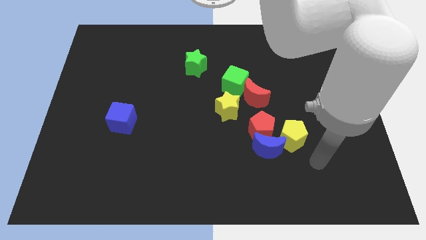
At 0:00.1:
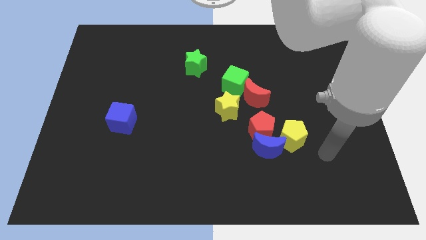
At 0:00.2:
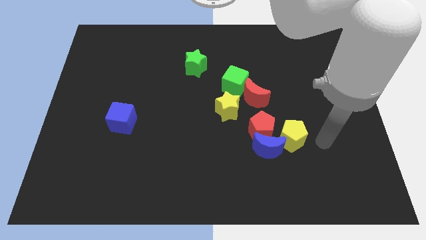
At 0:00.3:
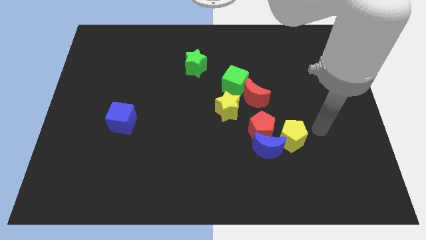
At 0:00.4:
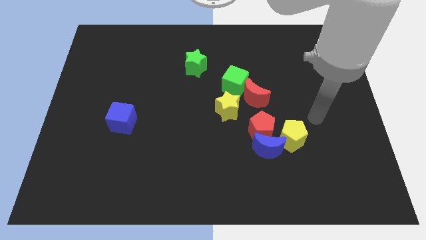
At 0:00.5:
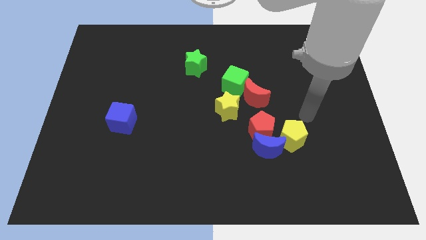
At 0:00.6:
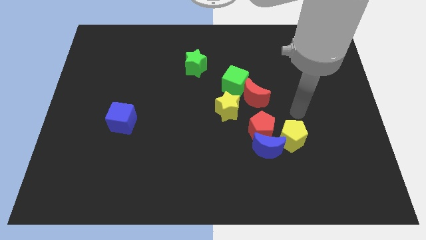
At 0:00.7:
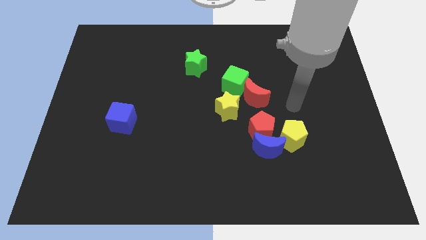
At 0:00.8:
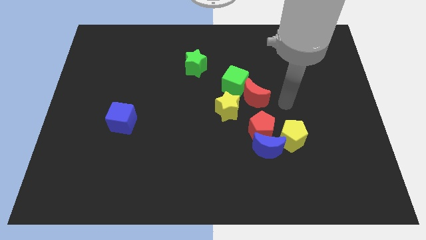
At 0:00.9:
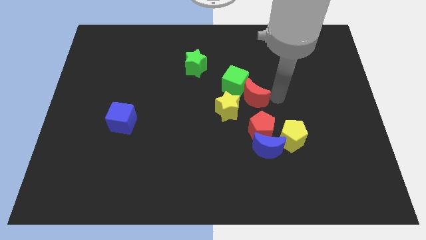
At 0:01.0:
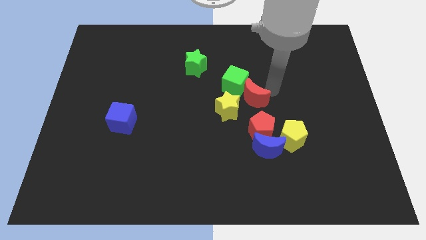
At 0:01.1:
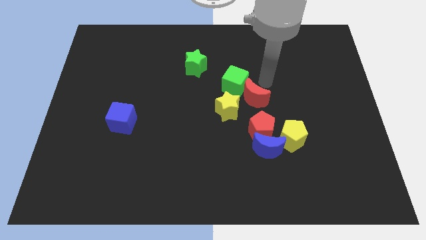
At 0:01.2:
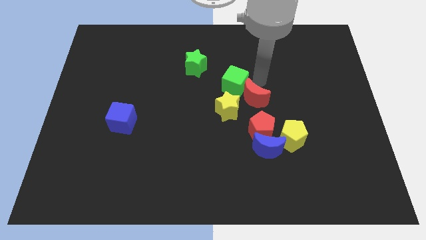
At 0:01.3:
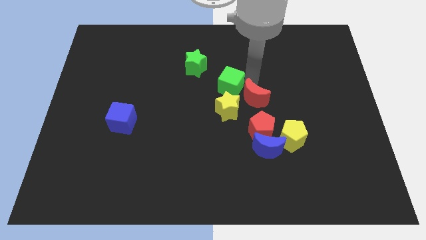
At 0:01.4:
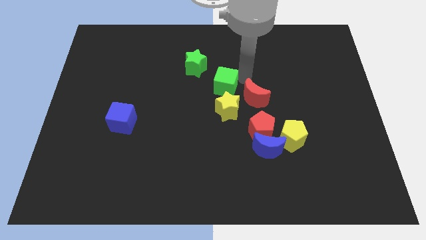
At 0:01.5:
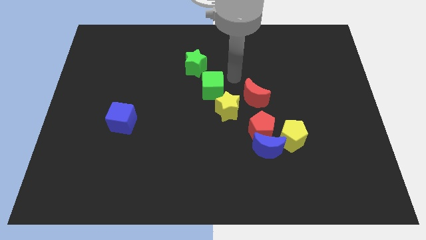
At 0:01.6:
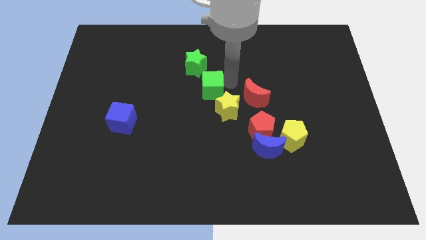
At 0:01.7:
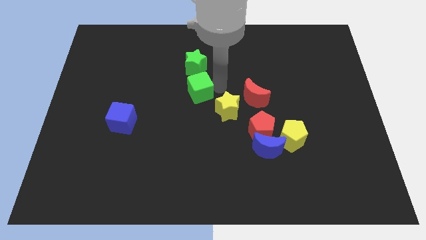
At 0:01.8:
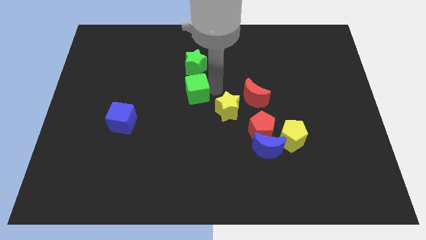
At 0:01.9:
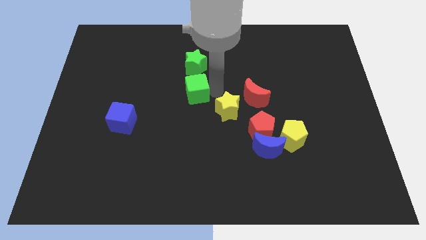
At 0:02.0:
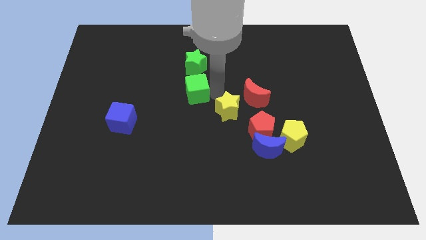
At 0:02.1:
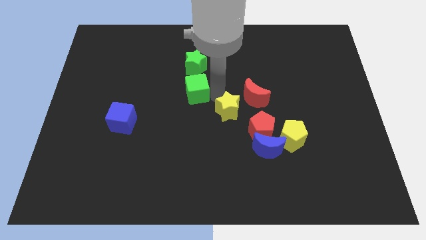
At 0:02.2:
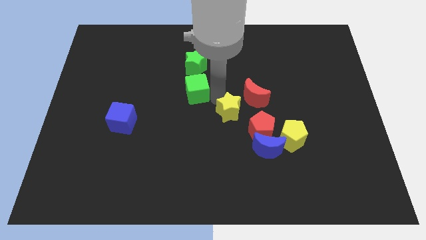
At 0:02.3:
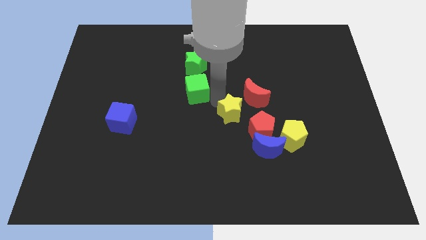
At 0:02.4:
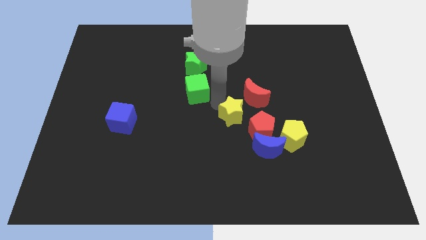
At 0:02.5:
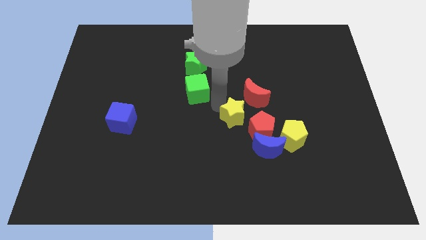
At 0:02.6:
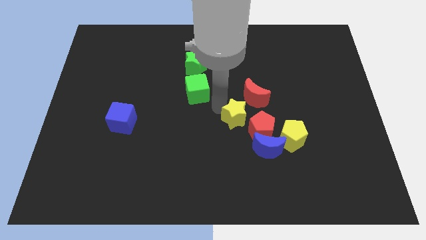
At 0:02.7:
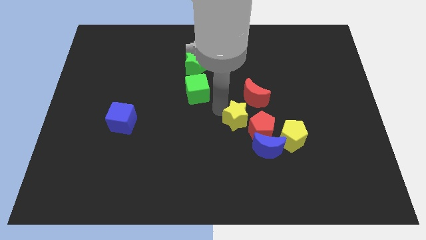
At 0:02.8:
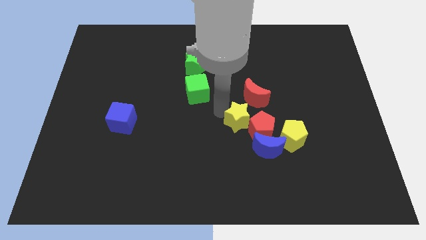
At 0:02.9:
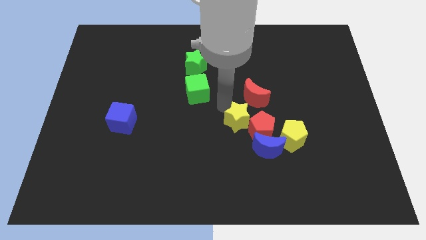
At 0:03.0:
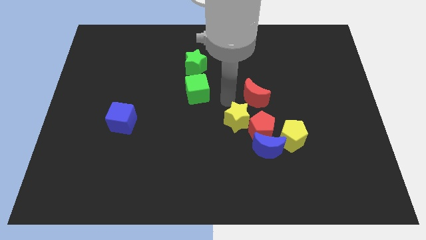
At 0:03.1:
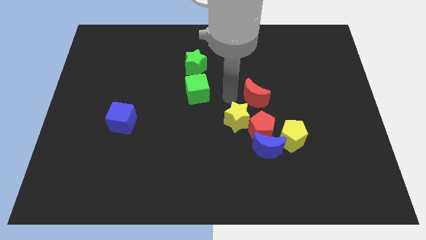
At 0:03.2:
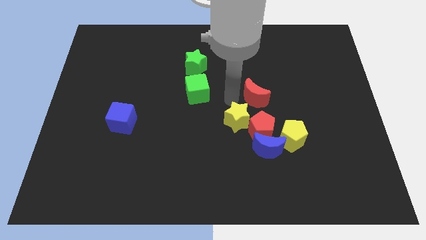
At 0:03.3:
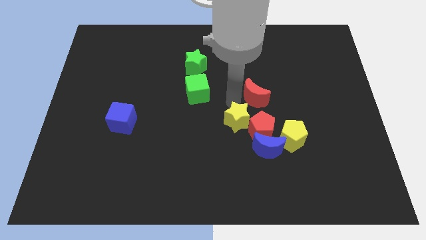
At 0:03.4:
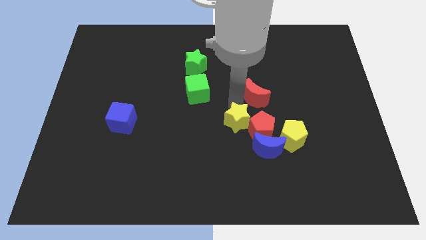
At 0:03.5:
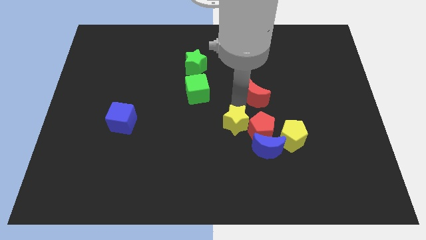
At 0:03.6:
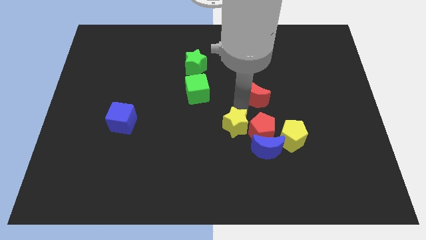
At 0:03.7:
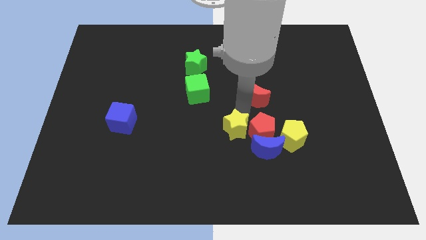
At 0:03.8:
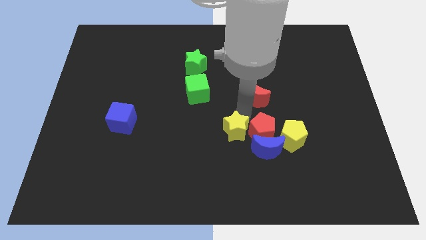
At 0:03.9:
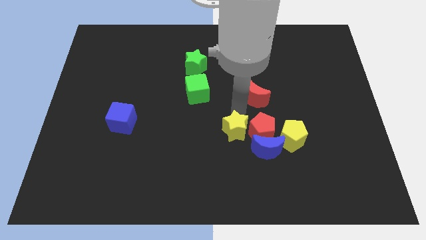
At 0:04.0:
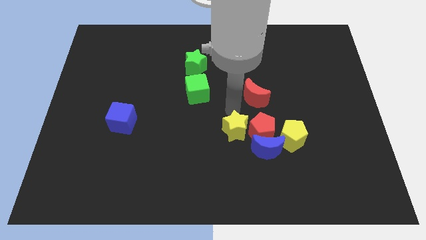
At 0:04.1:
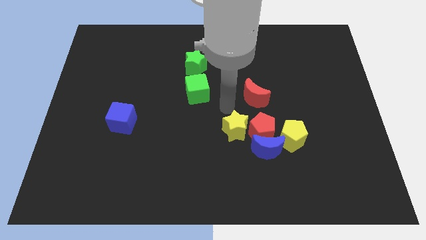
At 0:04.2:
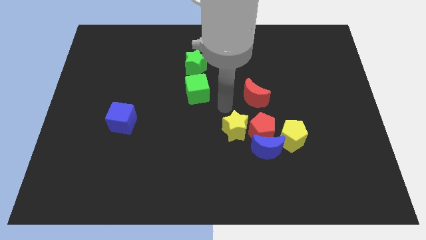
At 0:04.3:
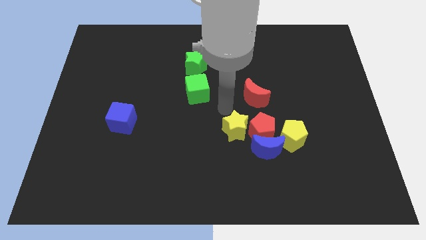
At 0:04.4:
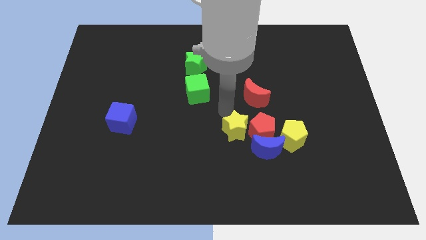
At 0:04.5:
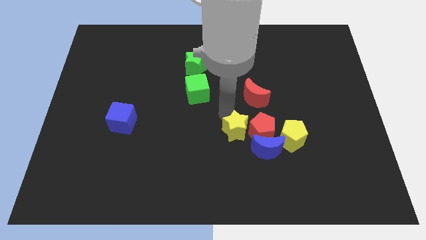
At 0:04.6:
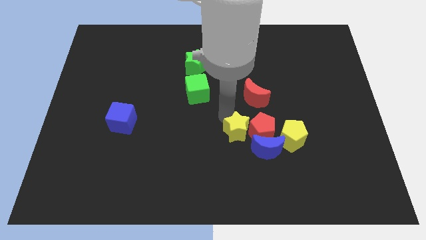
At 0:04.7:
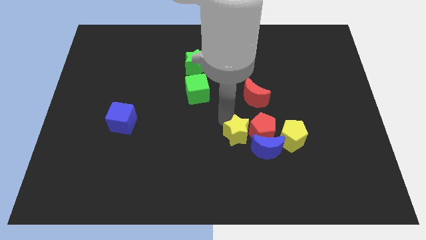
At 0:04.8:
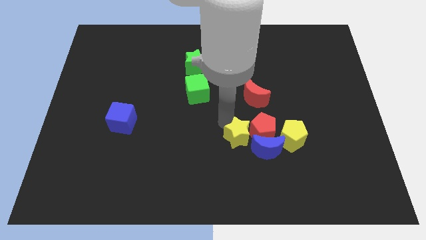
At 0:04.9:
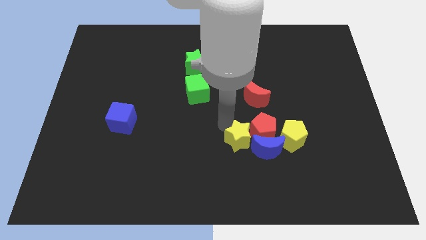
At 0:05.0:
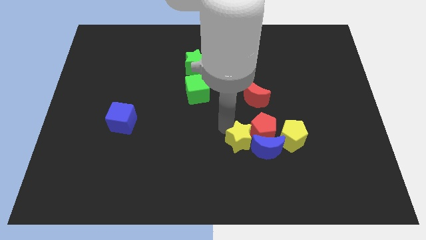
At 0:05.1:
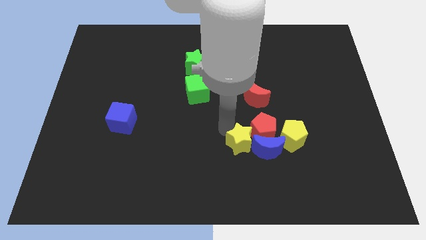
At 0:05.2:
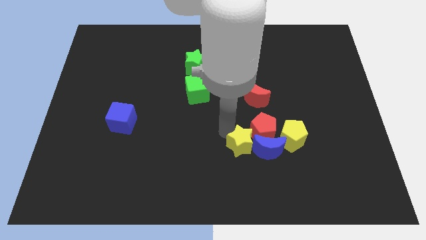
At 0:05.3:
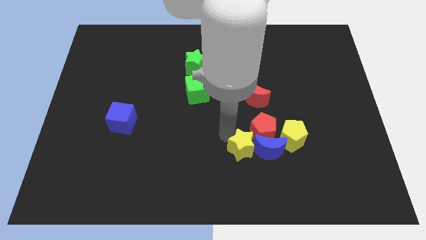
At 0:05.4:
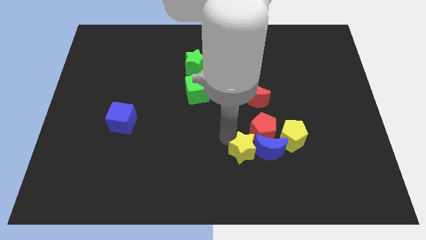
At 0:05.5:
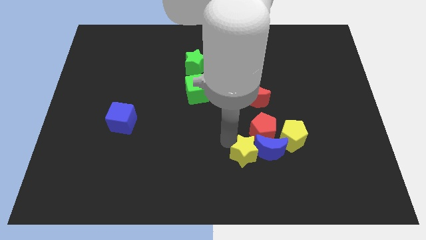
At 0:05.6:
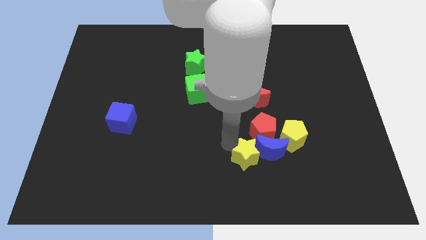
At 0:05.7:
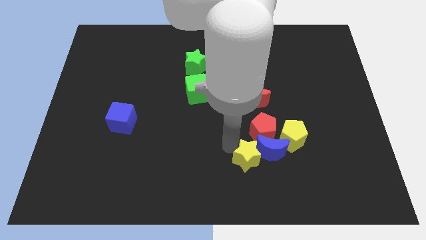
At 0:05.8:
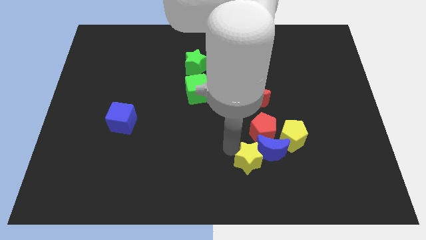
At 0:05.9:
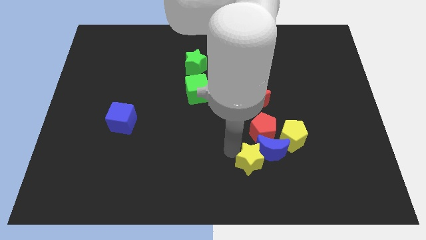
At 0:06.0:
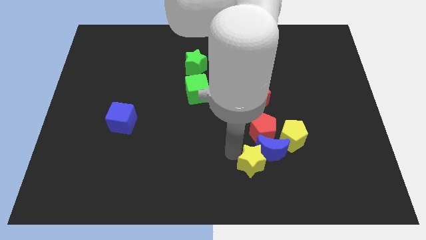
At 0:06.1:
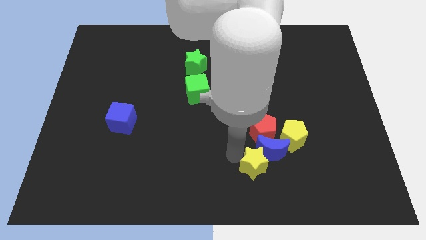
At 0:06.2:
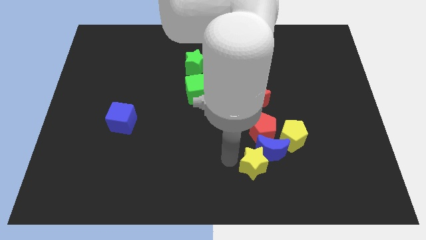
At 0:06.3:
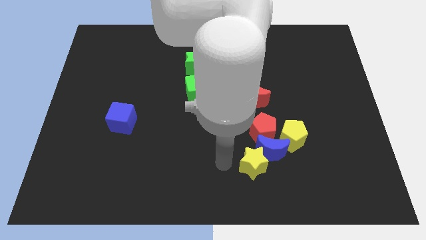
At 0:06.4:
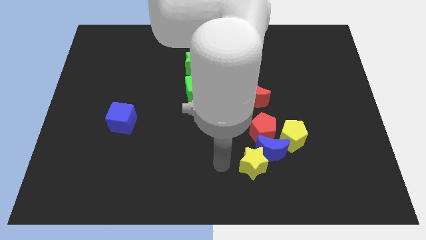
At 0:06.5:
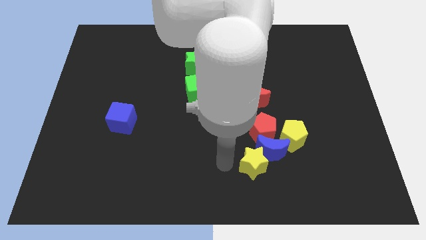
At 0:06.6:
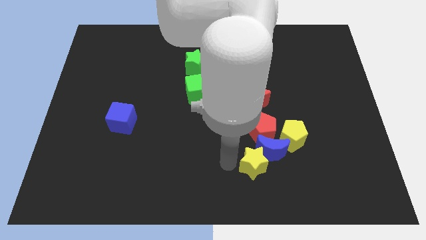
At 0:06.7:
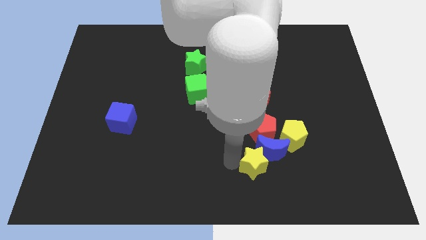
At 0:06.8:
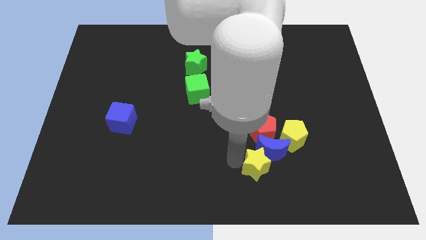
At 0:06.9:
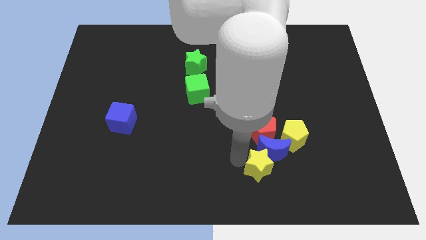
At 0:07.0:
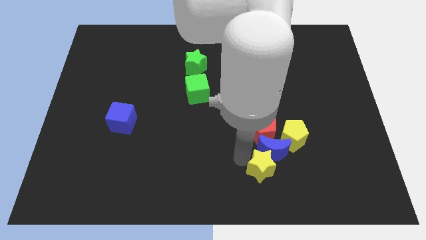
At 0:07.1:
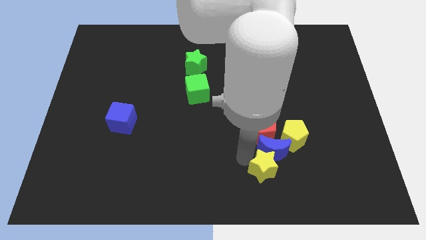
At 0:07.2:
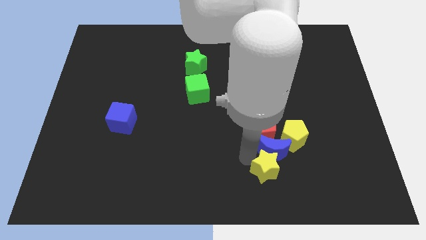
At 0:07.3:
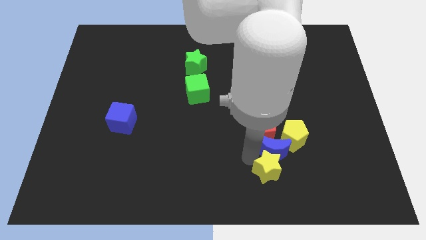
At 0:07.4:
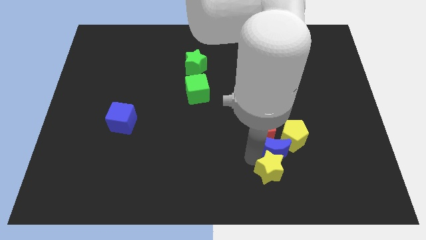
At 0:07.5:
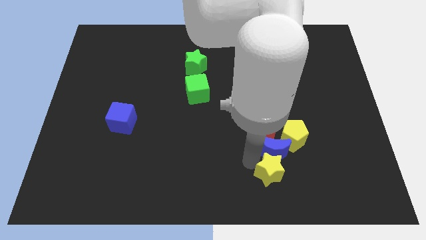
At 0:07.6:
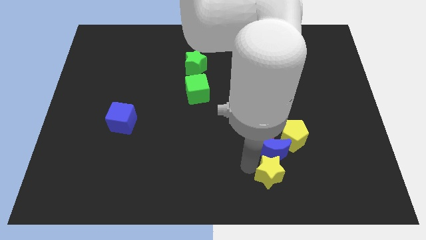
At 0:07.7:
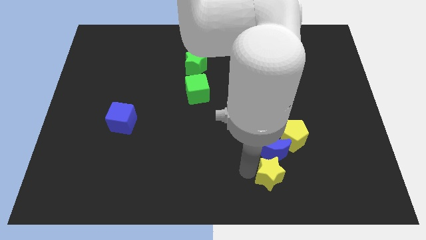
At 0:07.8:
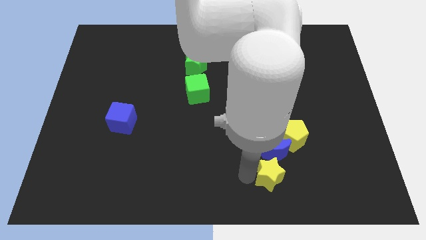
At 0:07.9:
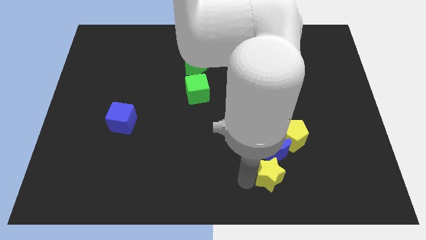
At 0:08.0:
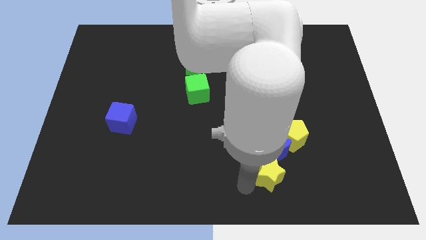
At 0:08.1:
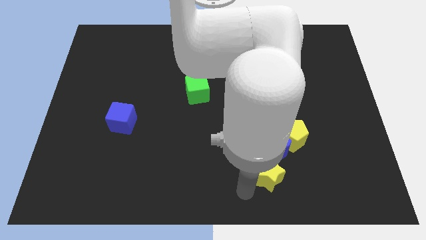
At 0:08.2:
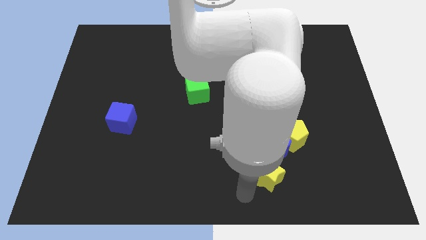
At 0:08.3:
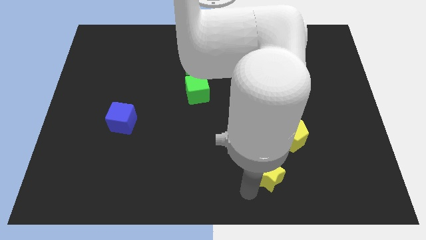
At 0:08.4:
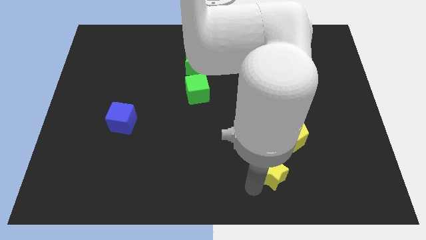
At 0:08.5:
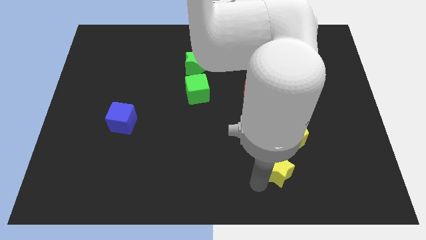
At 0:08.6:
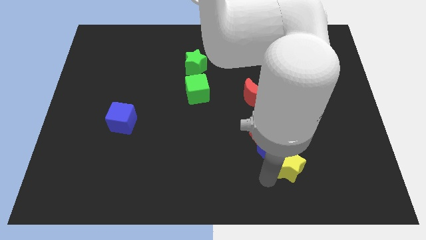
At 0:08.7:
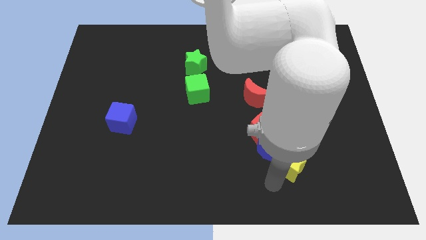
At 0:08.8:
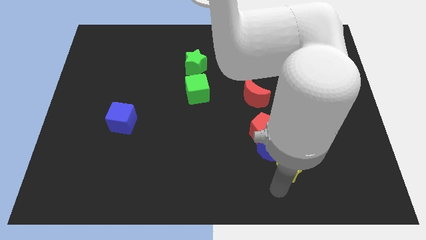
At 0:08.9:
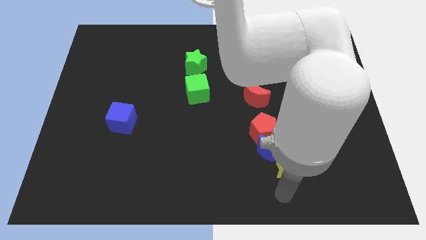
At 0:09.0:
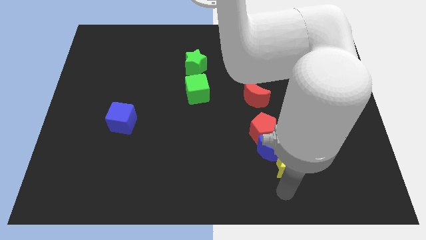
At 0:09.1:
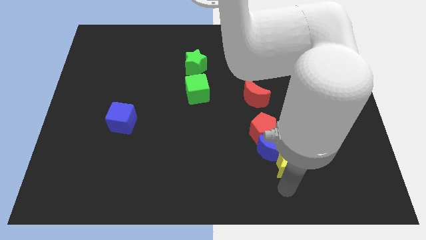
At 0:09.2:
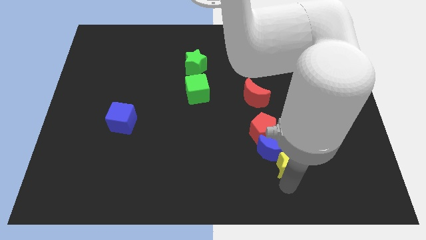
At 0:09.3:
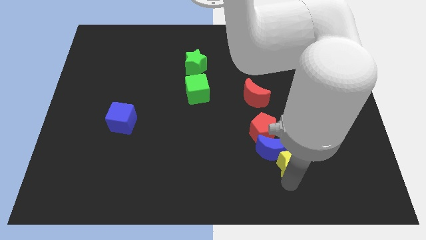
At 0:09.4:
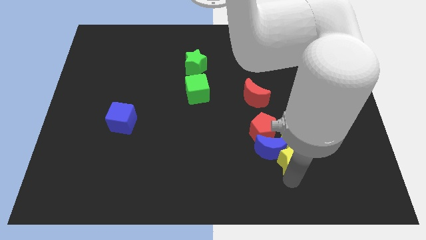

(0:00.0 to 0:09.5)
put the yellow star close to the yellow pentagon
